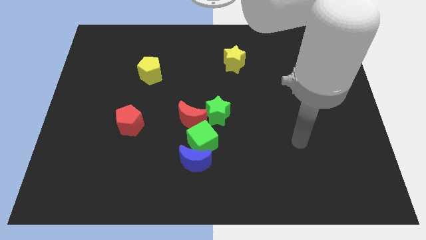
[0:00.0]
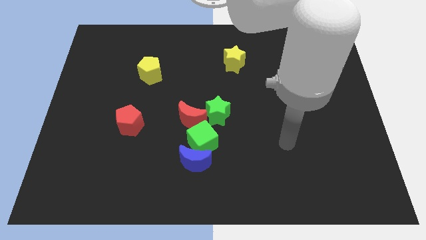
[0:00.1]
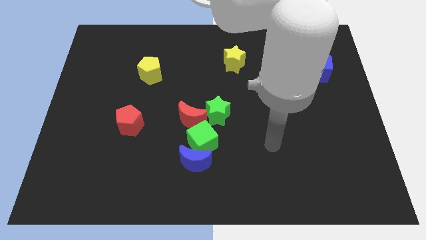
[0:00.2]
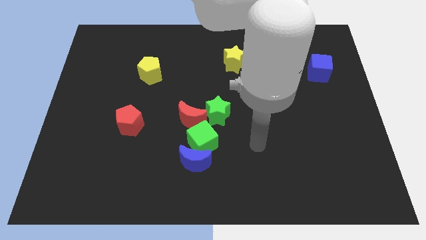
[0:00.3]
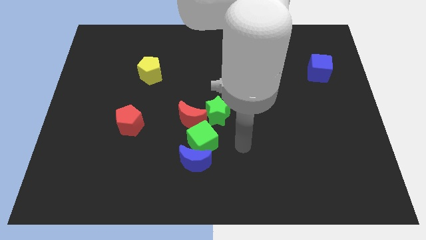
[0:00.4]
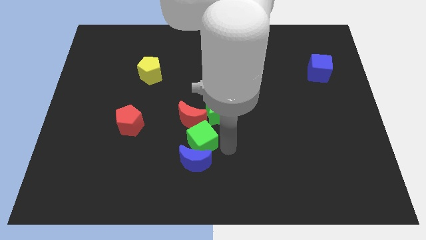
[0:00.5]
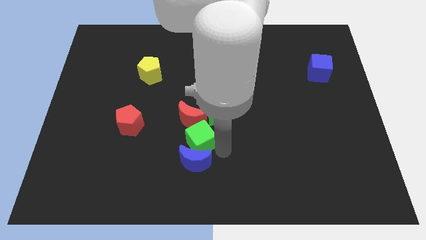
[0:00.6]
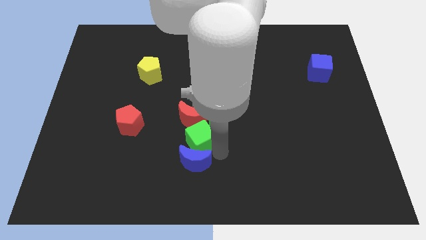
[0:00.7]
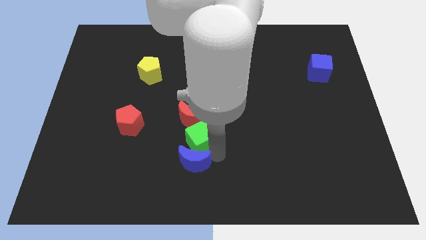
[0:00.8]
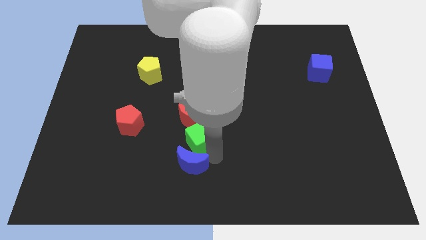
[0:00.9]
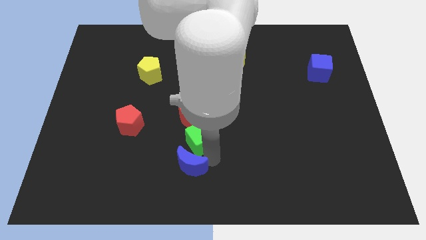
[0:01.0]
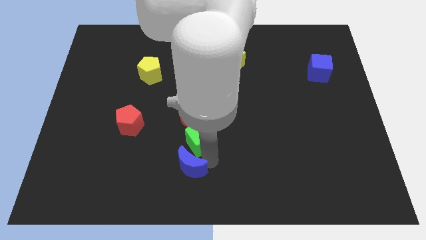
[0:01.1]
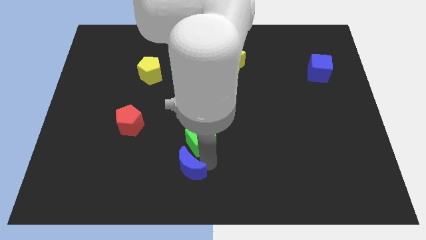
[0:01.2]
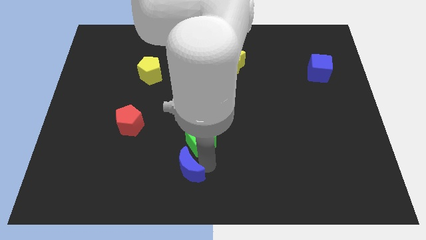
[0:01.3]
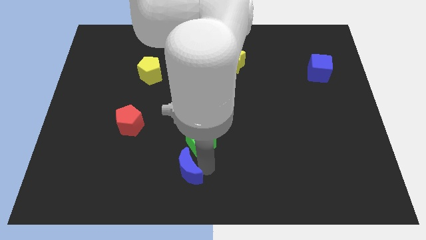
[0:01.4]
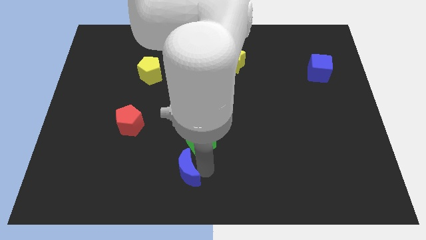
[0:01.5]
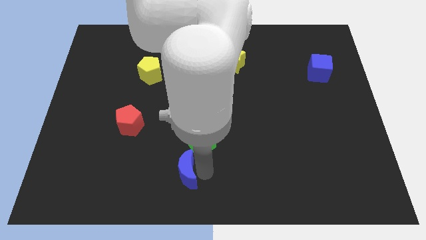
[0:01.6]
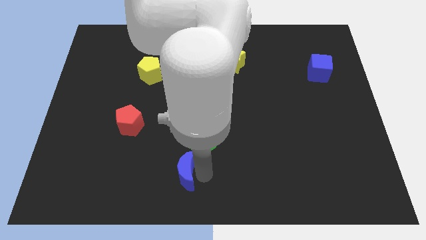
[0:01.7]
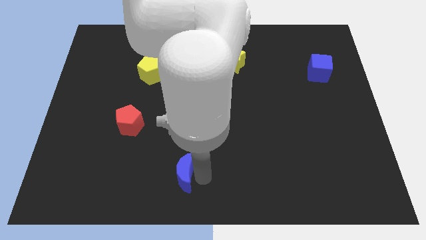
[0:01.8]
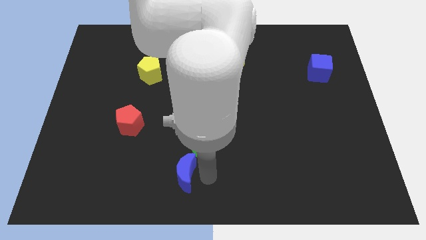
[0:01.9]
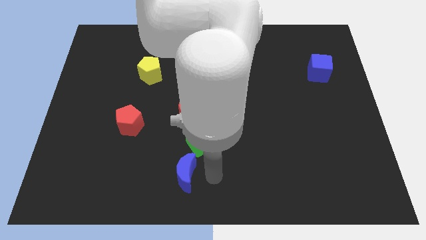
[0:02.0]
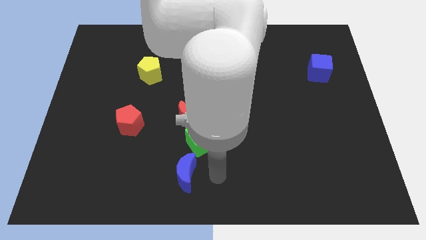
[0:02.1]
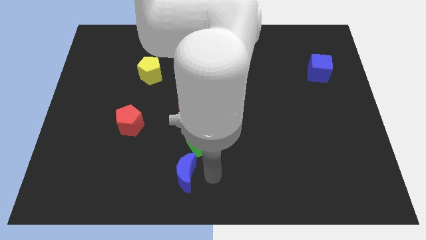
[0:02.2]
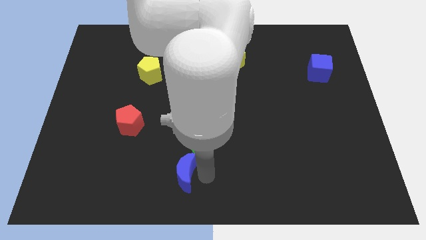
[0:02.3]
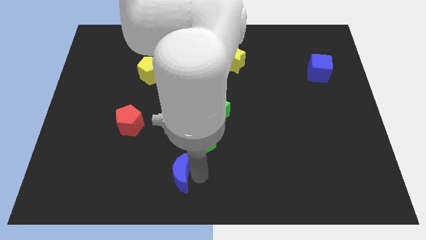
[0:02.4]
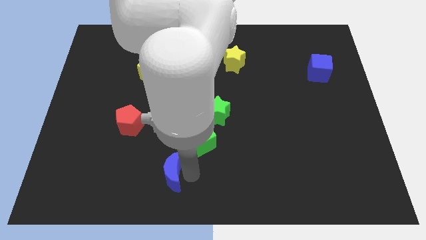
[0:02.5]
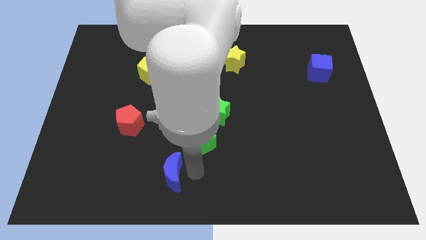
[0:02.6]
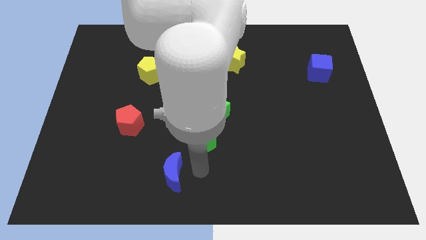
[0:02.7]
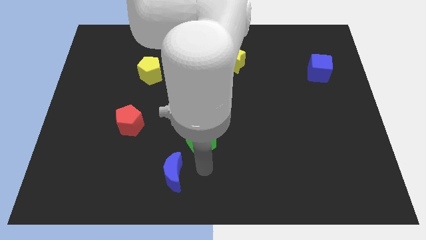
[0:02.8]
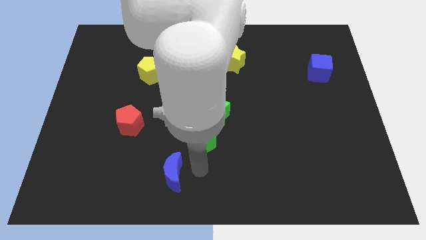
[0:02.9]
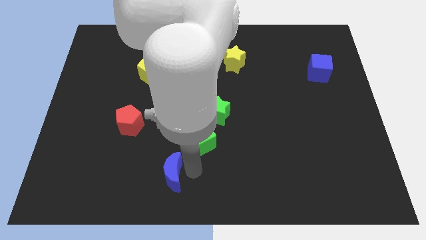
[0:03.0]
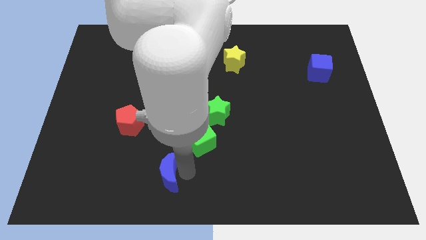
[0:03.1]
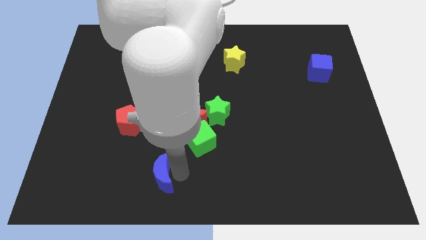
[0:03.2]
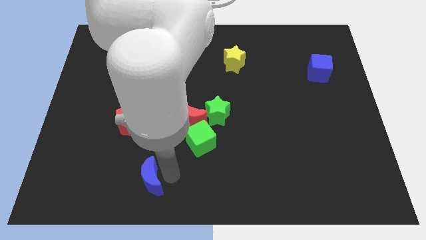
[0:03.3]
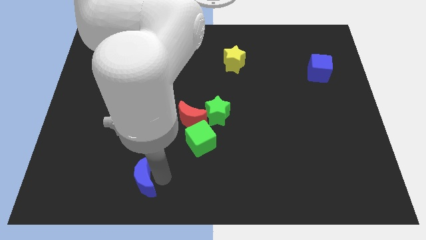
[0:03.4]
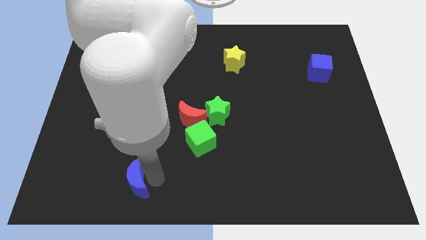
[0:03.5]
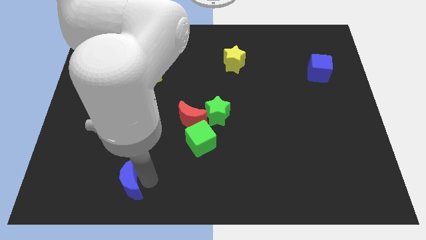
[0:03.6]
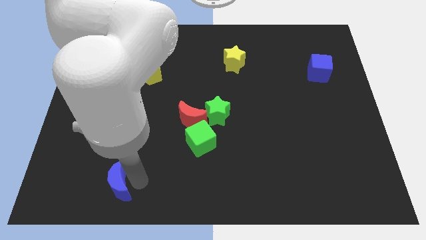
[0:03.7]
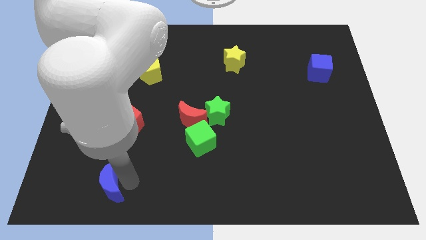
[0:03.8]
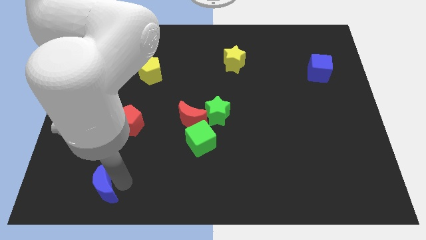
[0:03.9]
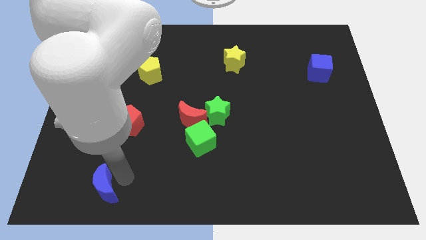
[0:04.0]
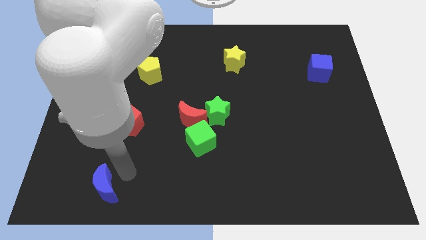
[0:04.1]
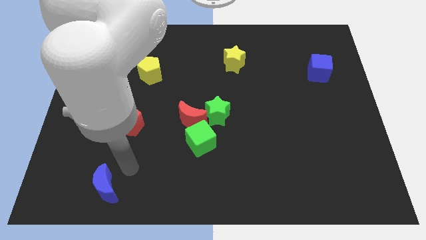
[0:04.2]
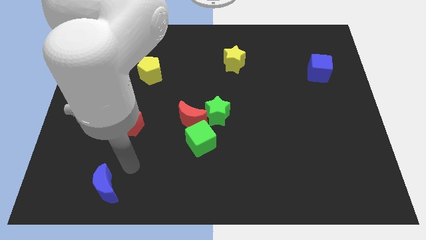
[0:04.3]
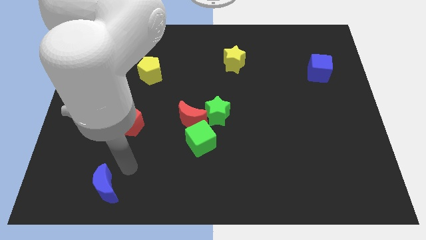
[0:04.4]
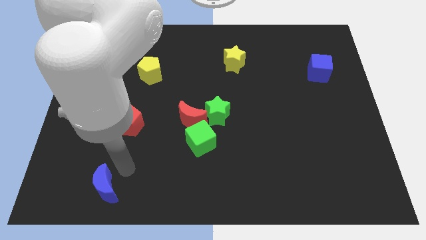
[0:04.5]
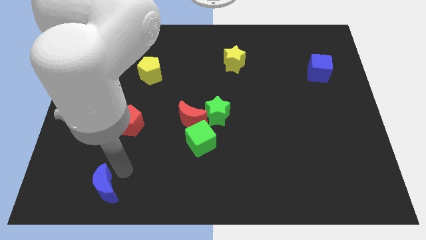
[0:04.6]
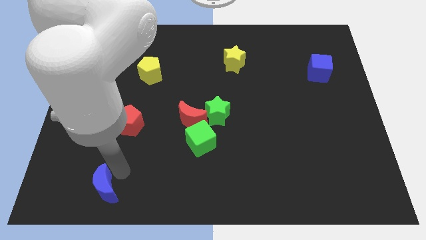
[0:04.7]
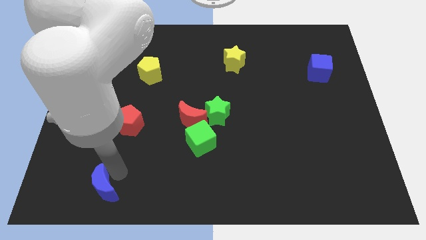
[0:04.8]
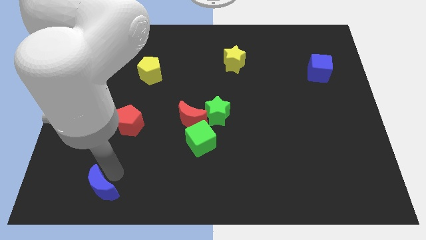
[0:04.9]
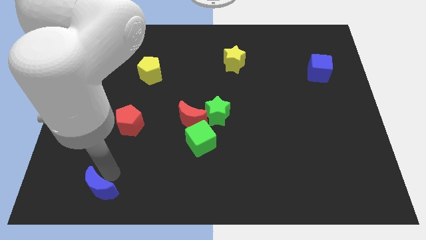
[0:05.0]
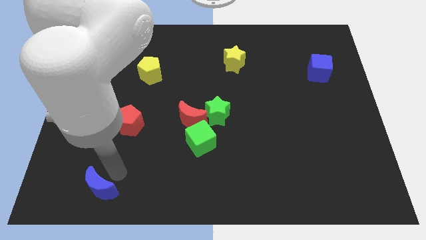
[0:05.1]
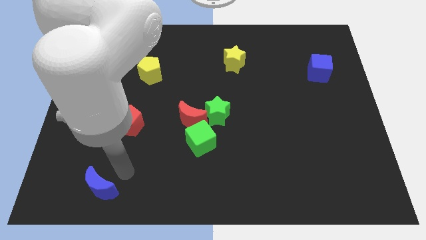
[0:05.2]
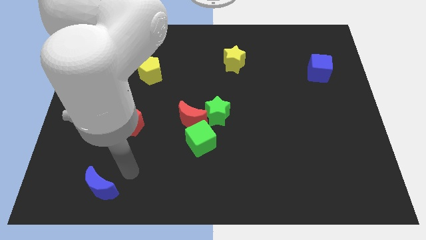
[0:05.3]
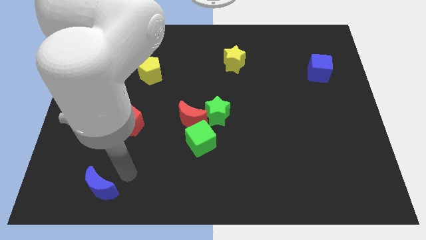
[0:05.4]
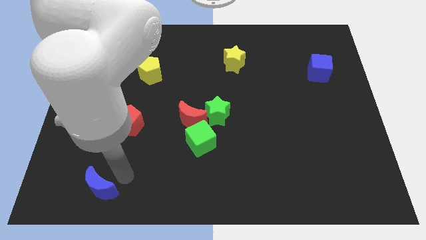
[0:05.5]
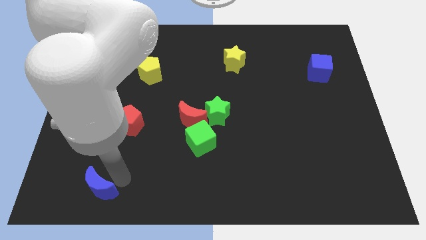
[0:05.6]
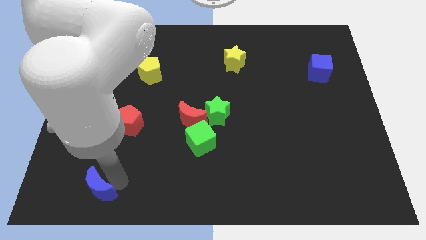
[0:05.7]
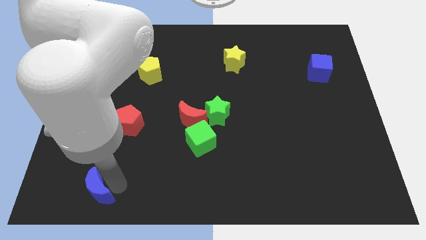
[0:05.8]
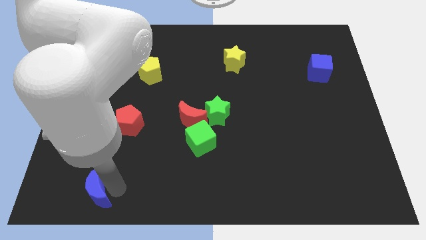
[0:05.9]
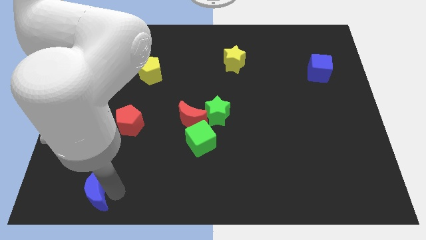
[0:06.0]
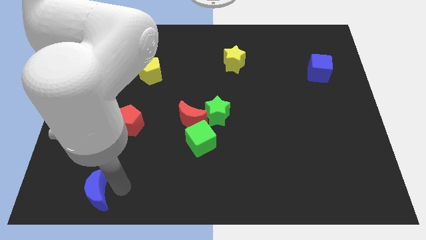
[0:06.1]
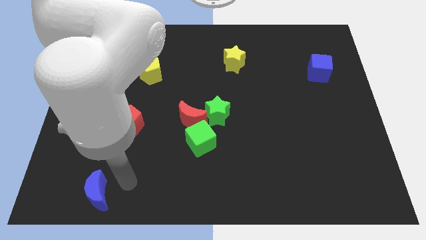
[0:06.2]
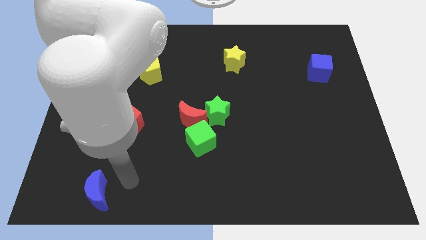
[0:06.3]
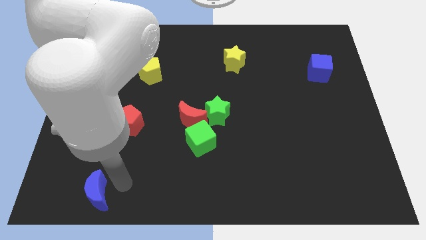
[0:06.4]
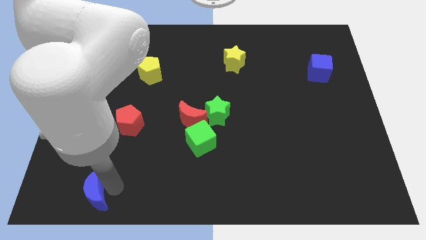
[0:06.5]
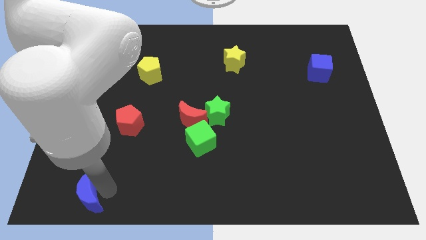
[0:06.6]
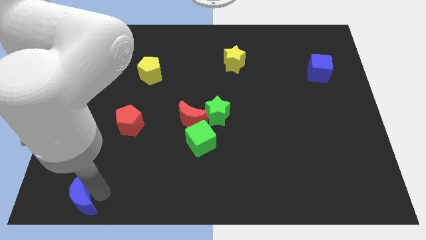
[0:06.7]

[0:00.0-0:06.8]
slide the blue moon to the lower left corner
